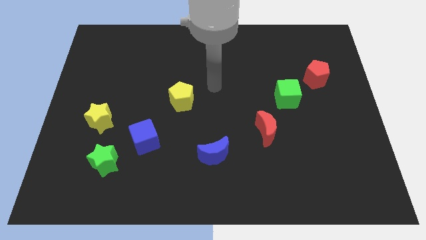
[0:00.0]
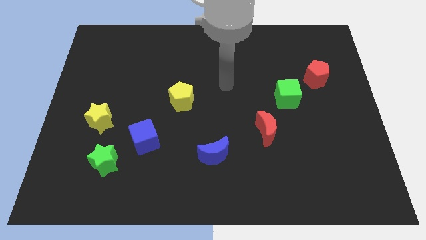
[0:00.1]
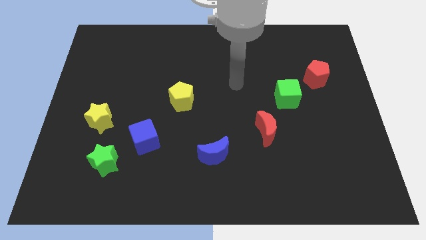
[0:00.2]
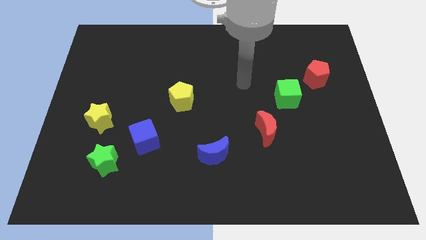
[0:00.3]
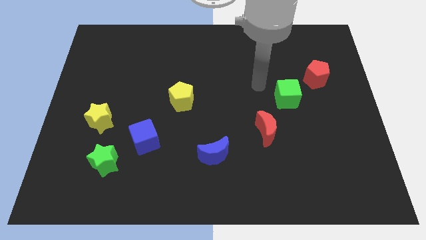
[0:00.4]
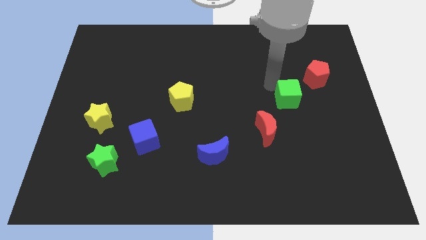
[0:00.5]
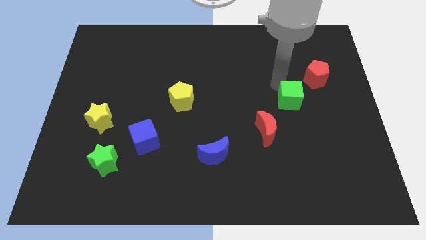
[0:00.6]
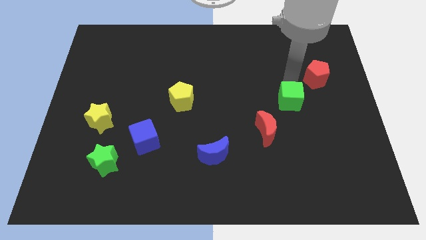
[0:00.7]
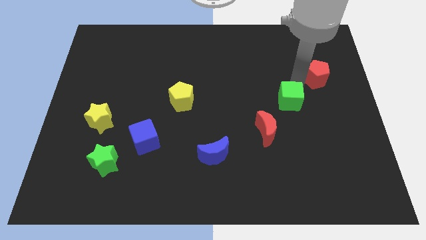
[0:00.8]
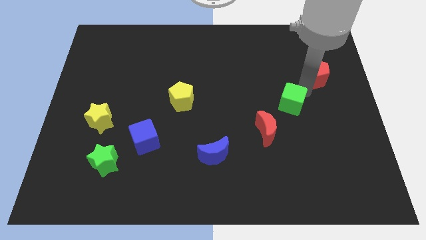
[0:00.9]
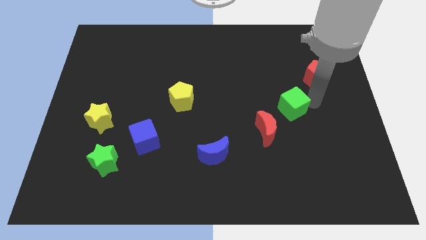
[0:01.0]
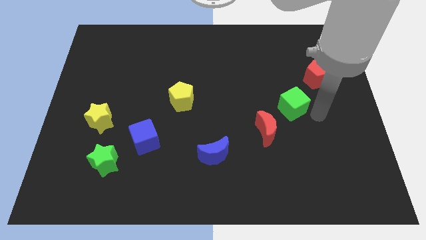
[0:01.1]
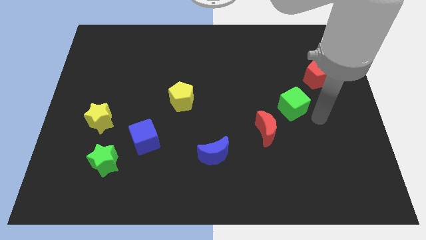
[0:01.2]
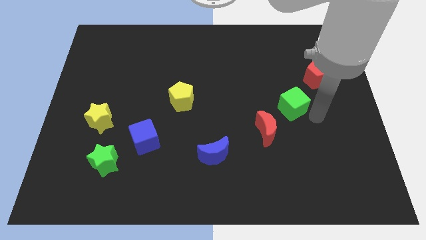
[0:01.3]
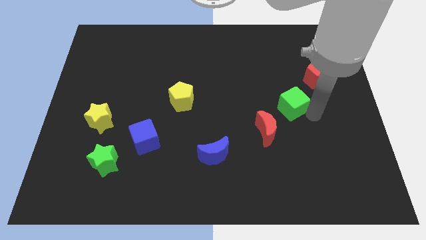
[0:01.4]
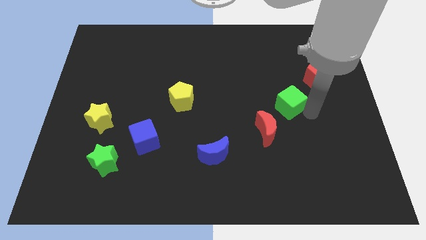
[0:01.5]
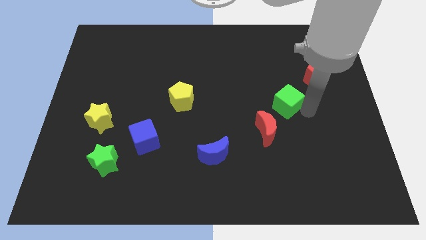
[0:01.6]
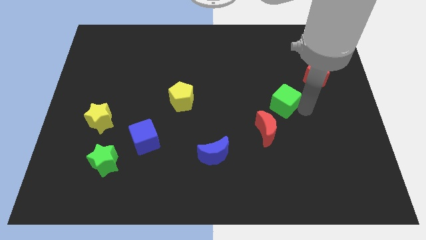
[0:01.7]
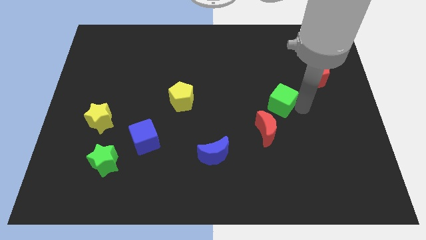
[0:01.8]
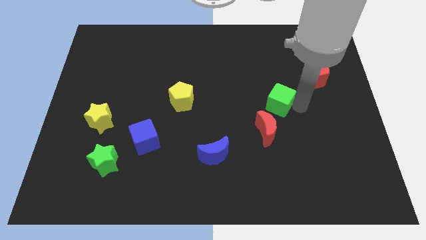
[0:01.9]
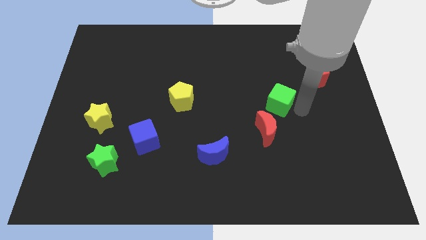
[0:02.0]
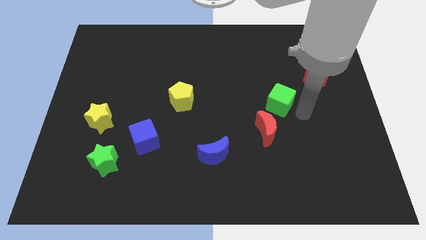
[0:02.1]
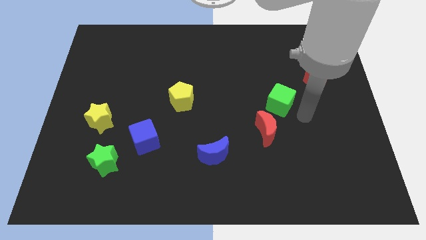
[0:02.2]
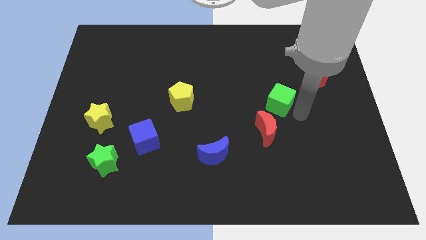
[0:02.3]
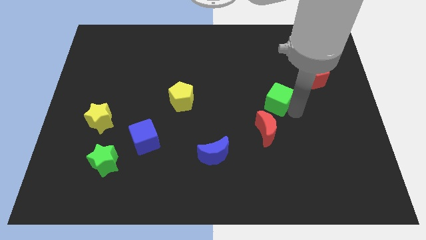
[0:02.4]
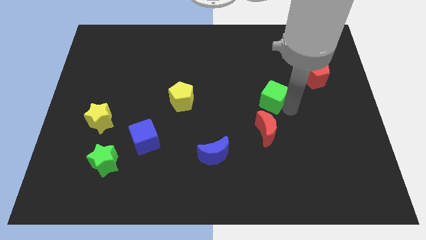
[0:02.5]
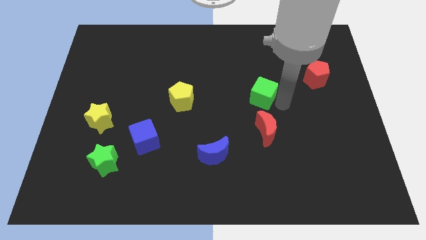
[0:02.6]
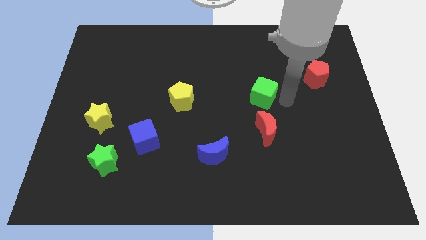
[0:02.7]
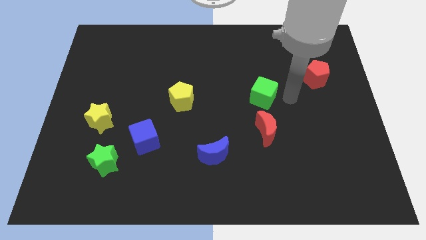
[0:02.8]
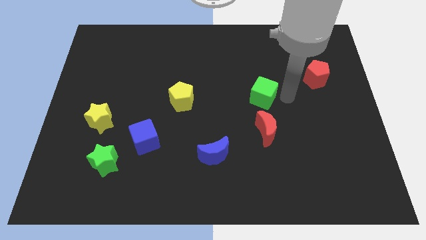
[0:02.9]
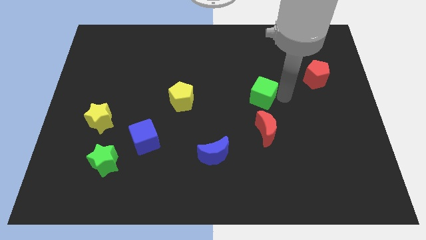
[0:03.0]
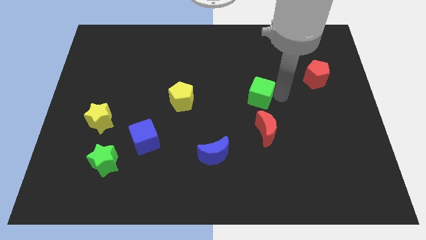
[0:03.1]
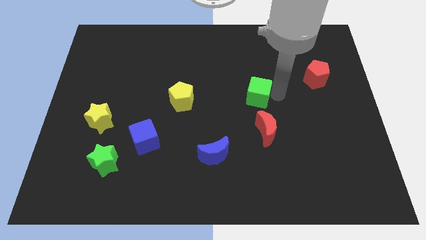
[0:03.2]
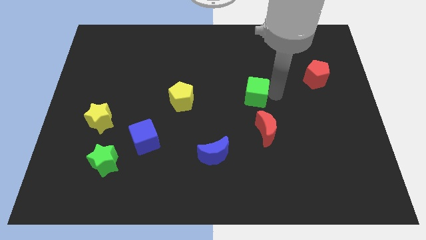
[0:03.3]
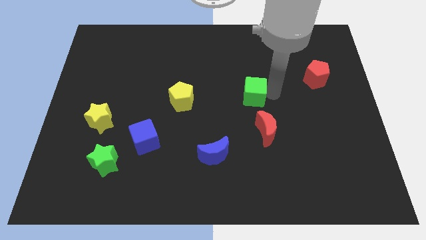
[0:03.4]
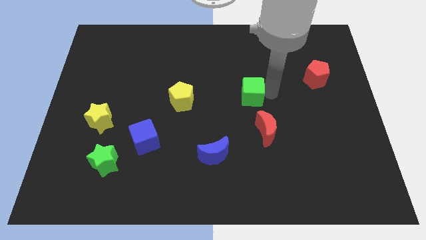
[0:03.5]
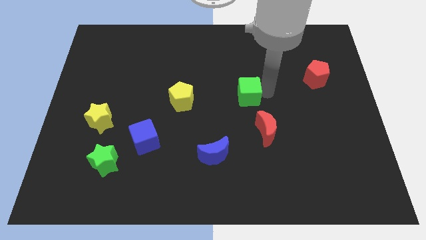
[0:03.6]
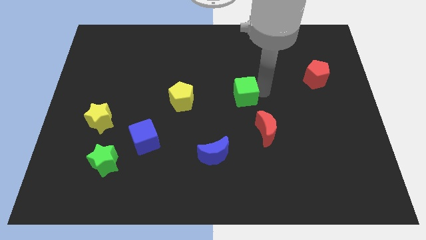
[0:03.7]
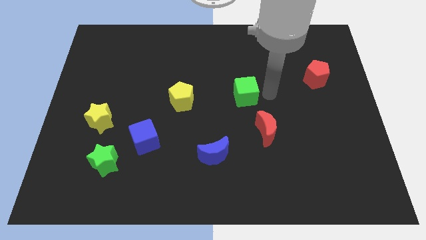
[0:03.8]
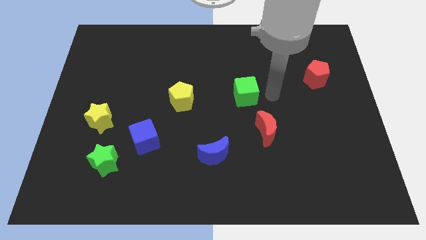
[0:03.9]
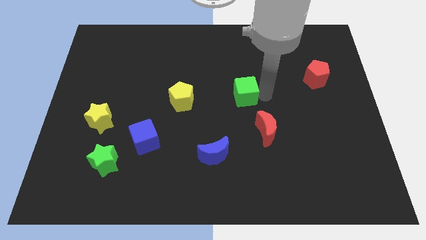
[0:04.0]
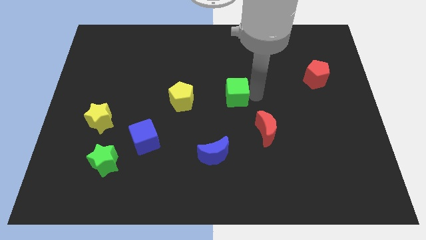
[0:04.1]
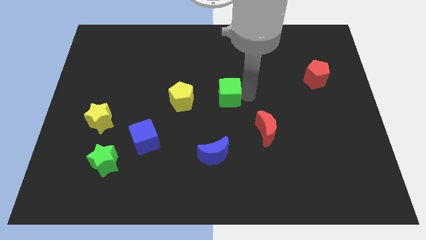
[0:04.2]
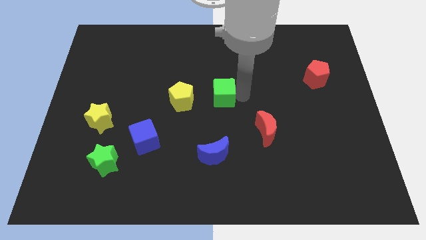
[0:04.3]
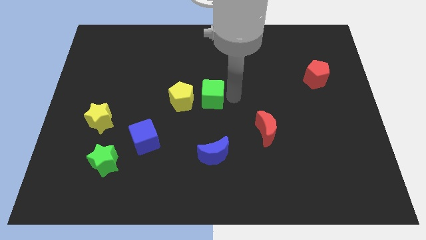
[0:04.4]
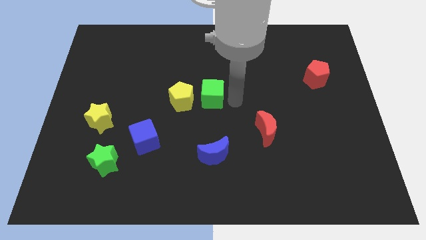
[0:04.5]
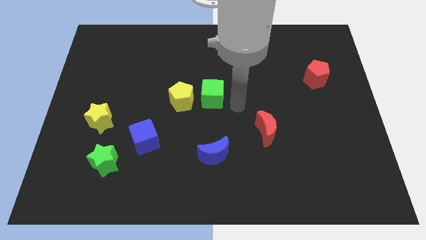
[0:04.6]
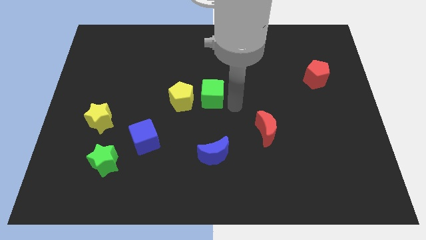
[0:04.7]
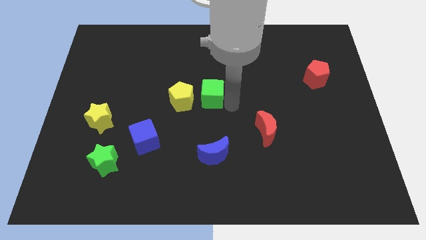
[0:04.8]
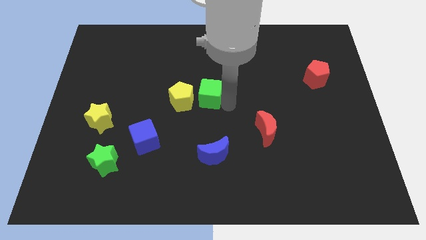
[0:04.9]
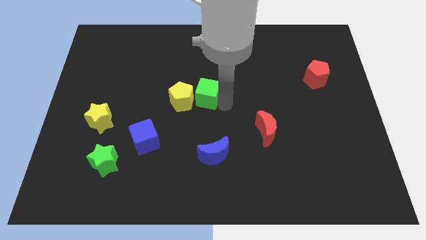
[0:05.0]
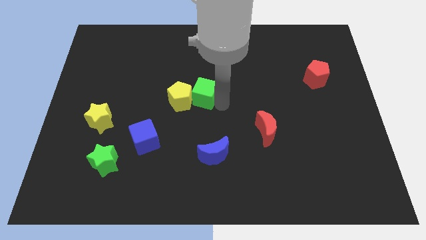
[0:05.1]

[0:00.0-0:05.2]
slide the green cube left

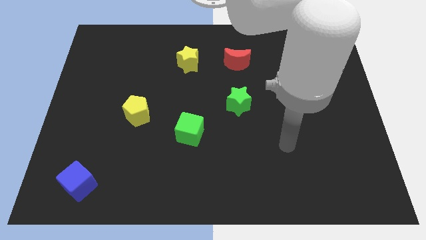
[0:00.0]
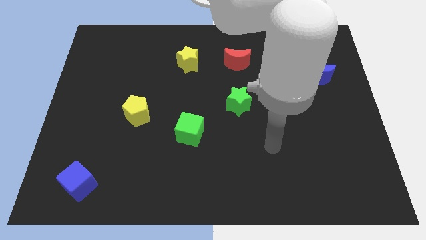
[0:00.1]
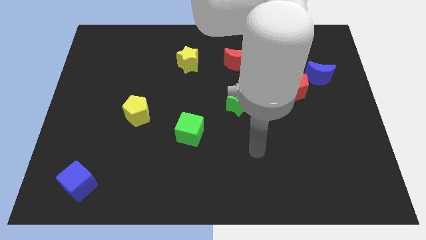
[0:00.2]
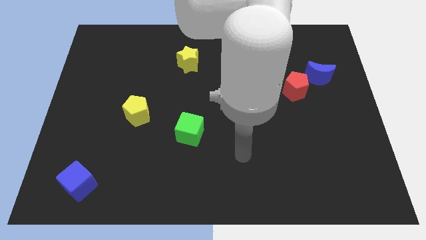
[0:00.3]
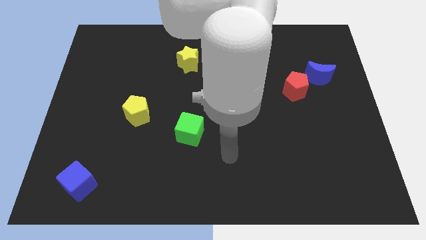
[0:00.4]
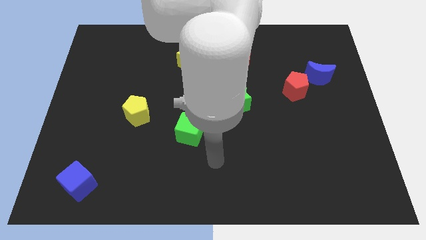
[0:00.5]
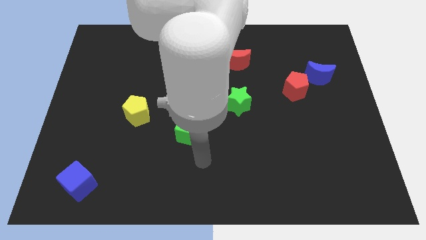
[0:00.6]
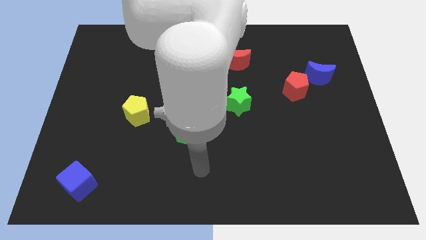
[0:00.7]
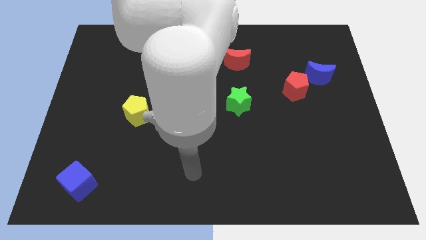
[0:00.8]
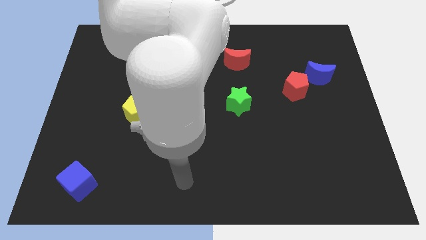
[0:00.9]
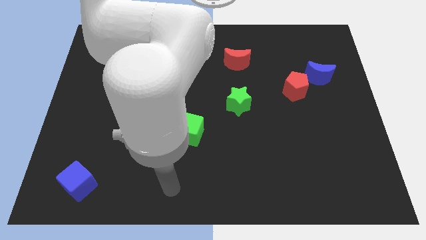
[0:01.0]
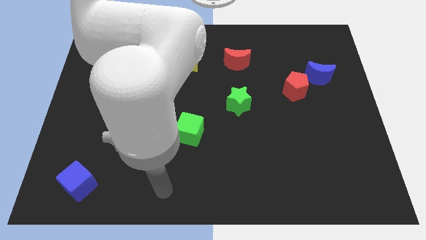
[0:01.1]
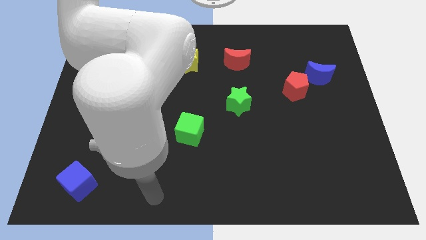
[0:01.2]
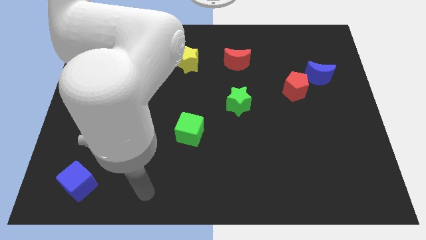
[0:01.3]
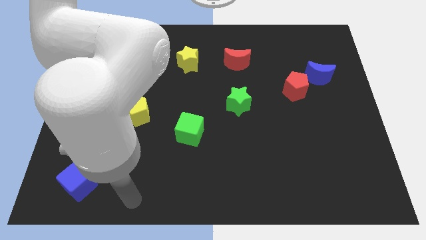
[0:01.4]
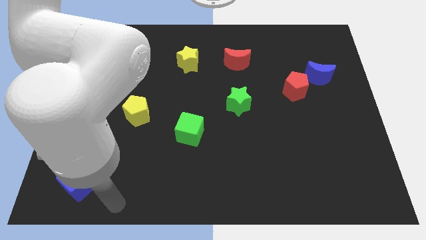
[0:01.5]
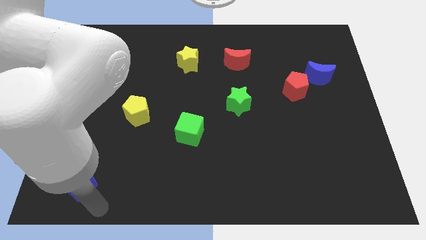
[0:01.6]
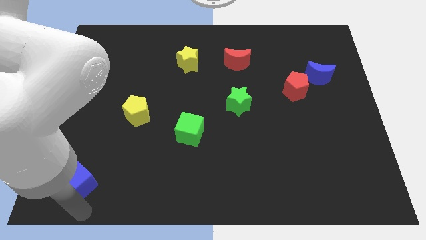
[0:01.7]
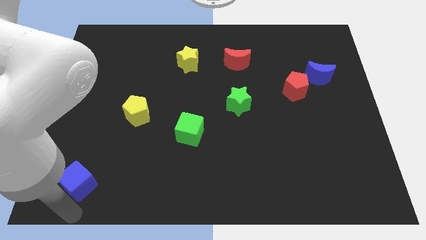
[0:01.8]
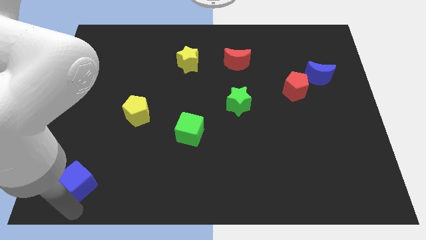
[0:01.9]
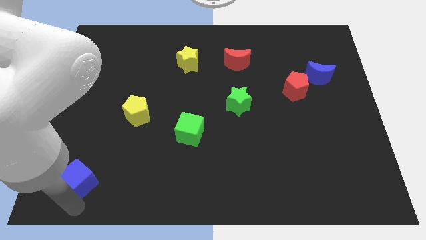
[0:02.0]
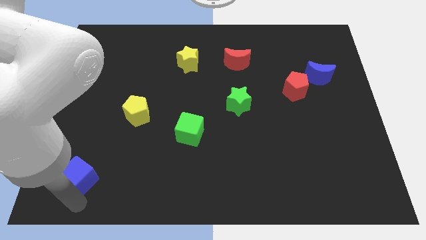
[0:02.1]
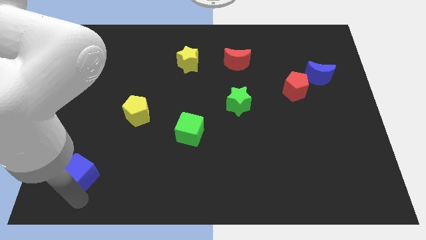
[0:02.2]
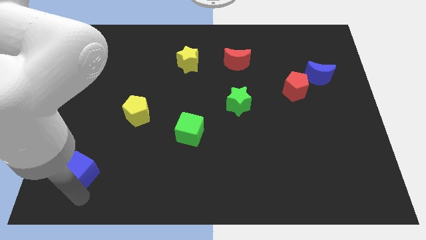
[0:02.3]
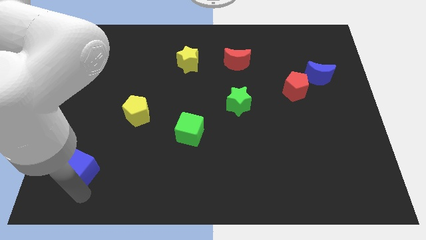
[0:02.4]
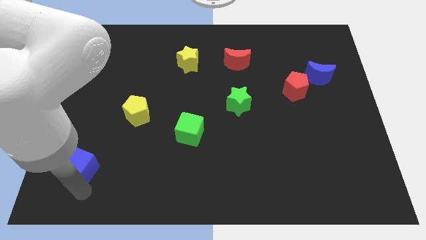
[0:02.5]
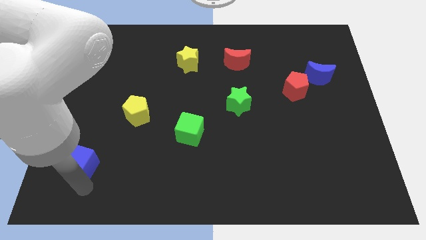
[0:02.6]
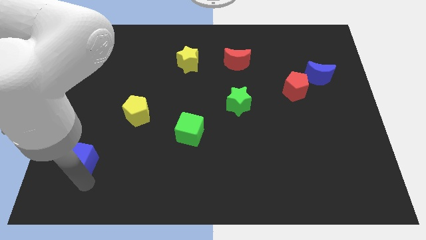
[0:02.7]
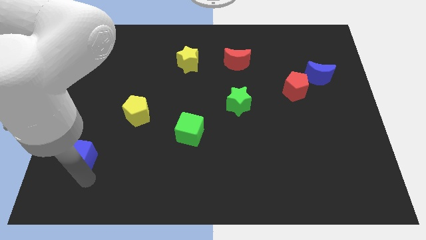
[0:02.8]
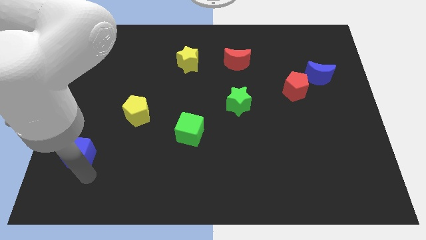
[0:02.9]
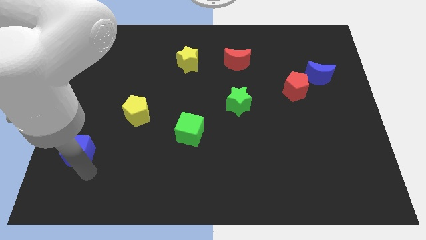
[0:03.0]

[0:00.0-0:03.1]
slide the blue cube slightly up
